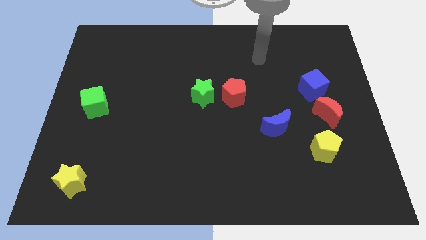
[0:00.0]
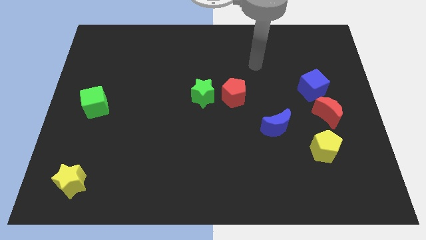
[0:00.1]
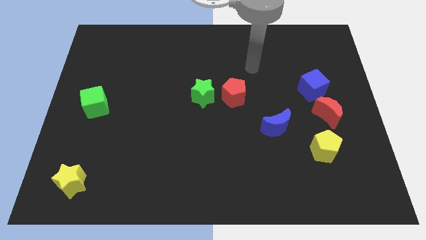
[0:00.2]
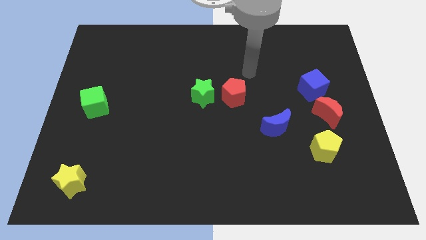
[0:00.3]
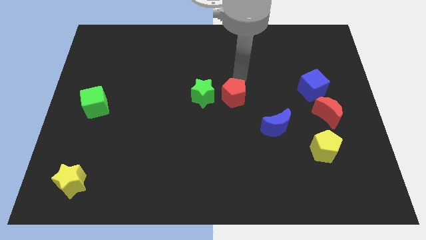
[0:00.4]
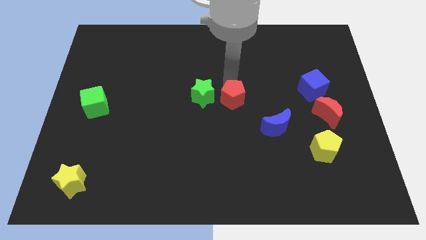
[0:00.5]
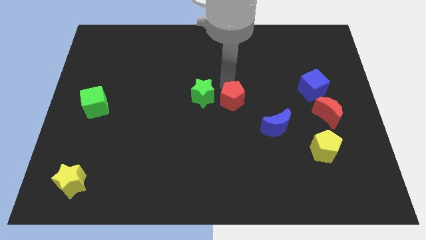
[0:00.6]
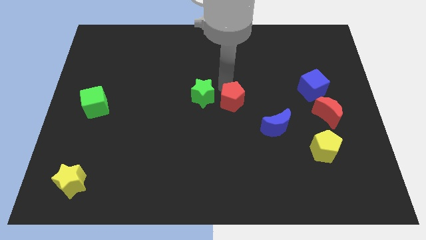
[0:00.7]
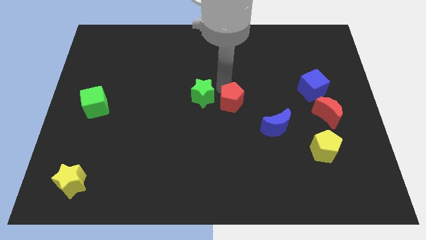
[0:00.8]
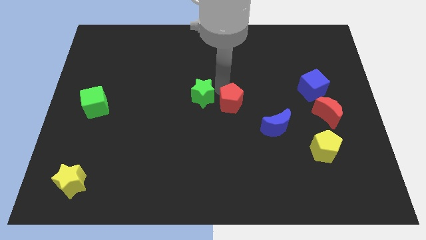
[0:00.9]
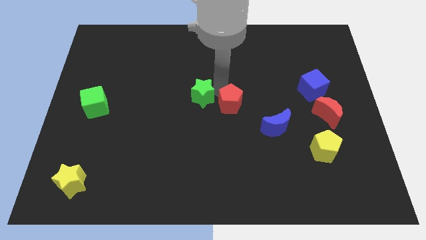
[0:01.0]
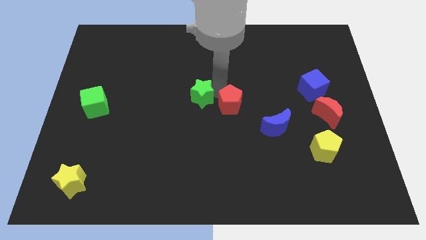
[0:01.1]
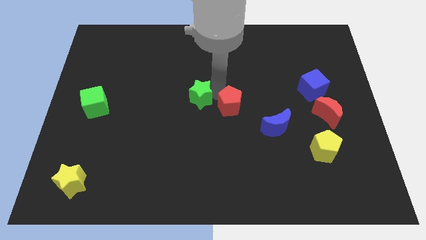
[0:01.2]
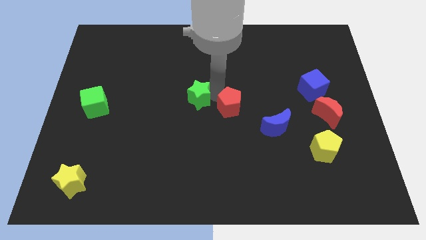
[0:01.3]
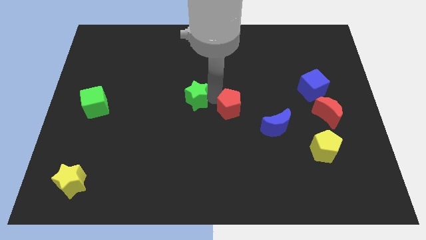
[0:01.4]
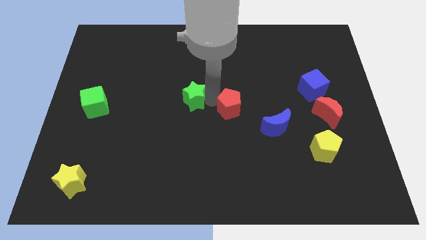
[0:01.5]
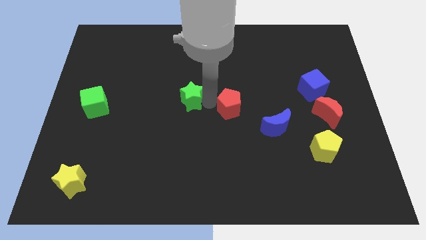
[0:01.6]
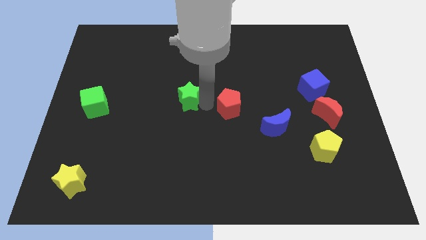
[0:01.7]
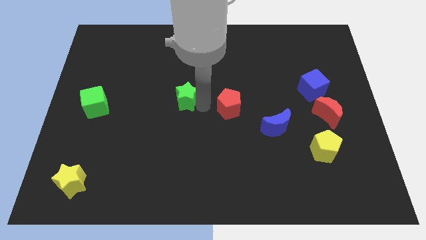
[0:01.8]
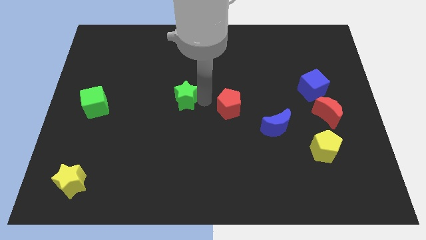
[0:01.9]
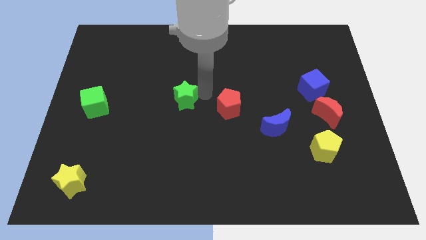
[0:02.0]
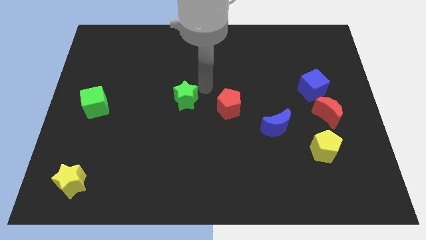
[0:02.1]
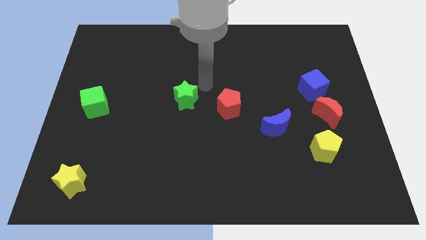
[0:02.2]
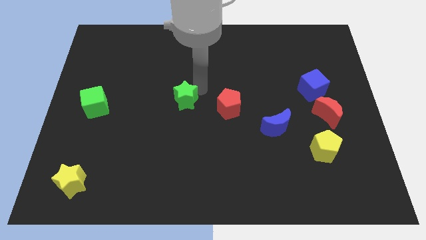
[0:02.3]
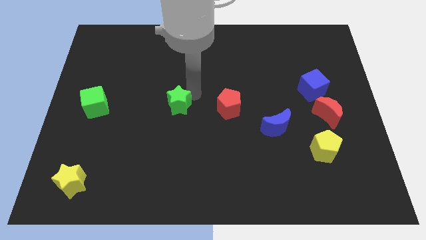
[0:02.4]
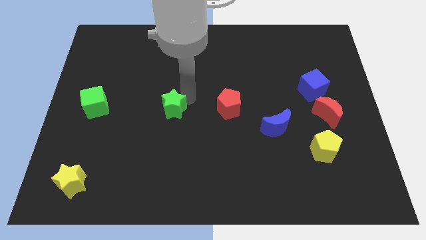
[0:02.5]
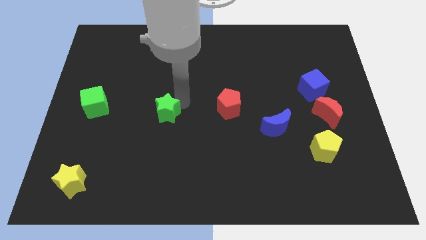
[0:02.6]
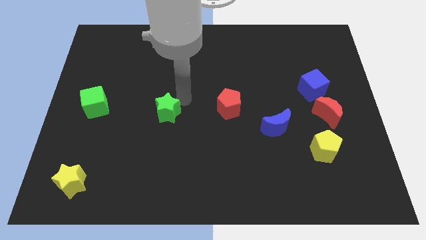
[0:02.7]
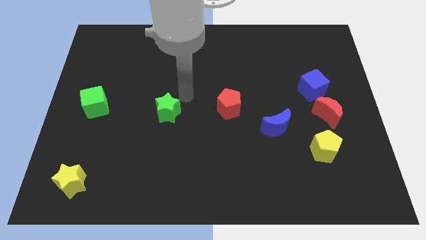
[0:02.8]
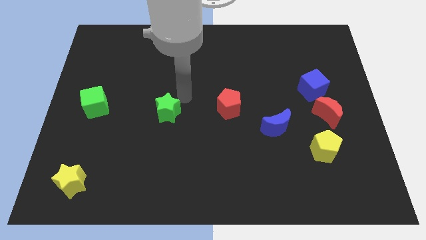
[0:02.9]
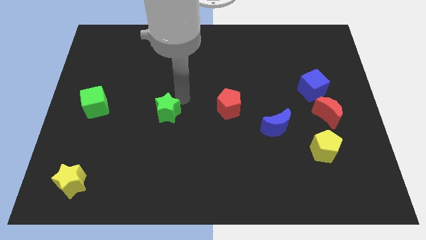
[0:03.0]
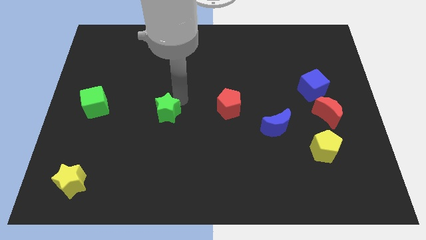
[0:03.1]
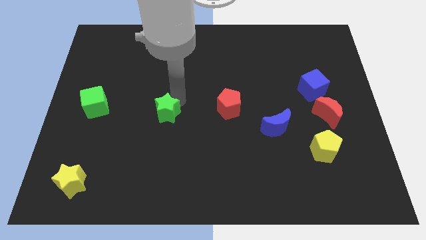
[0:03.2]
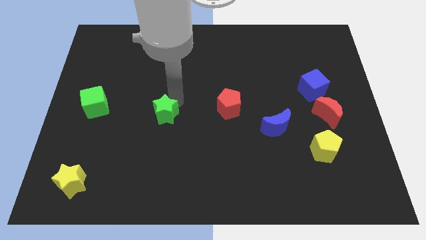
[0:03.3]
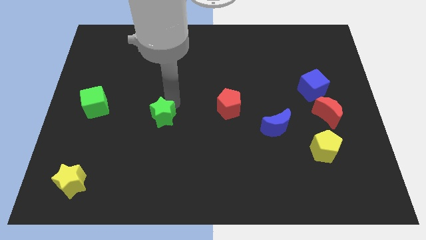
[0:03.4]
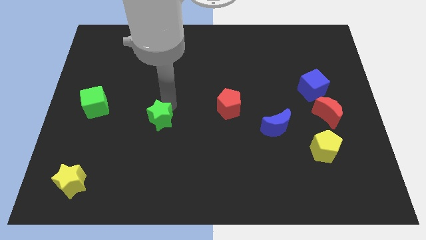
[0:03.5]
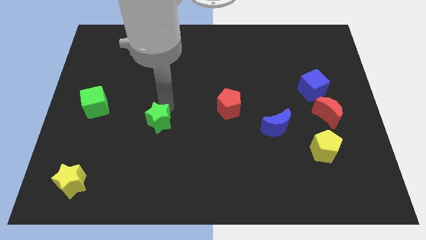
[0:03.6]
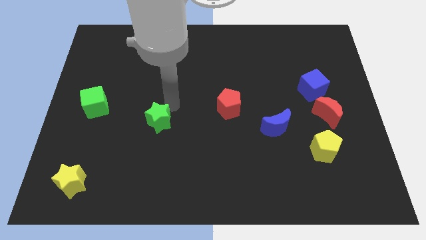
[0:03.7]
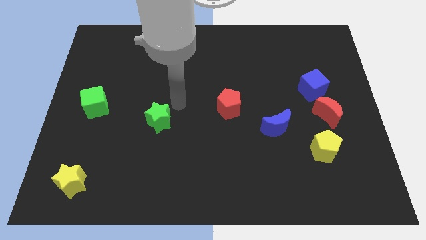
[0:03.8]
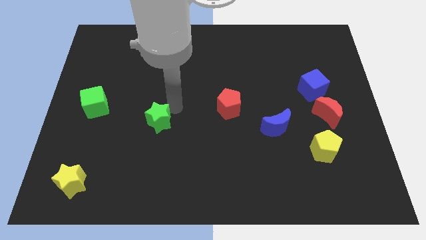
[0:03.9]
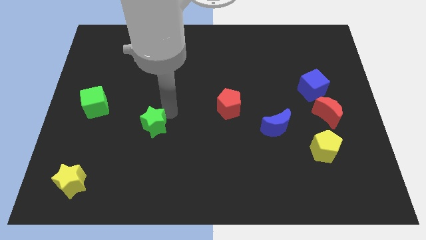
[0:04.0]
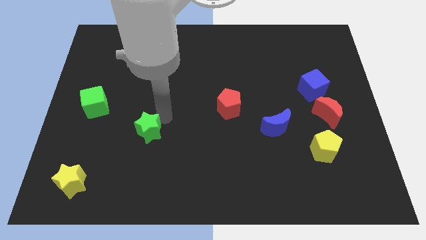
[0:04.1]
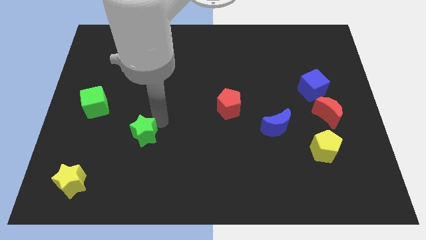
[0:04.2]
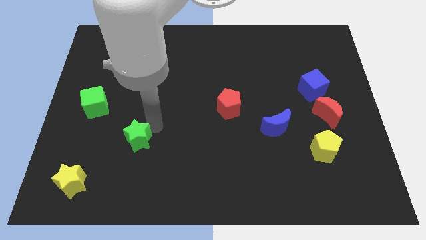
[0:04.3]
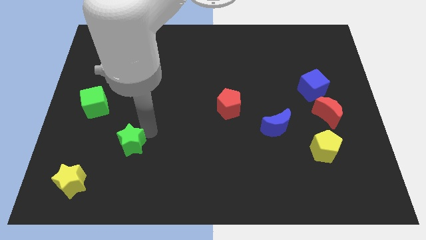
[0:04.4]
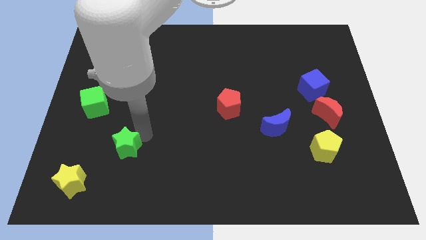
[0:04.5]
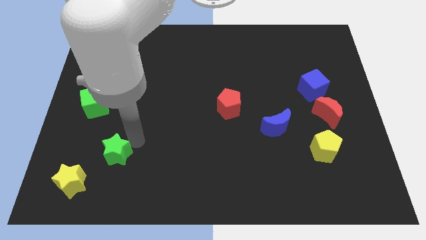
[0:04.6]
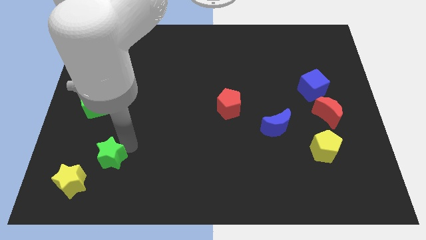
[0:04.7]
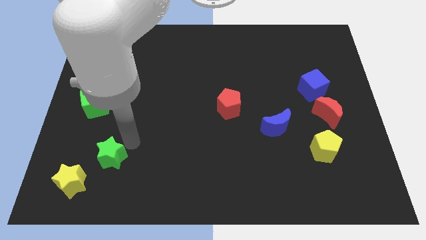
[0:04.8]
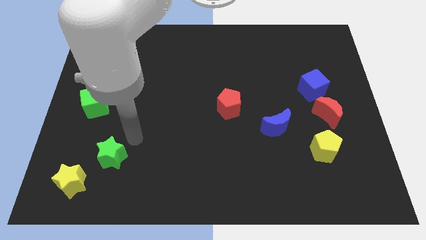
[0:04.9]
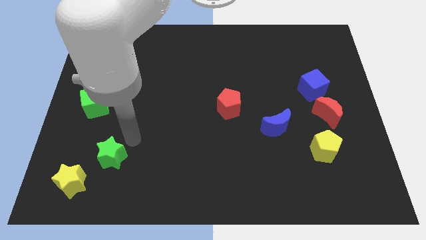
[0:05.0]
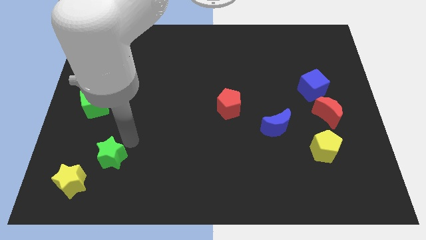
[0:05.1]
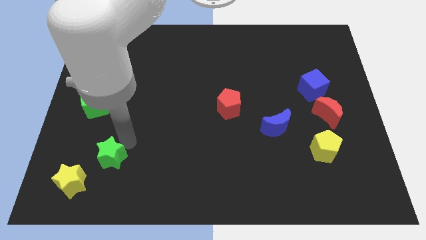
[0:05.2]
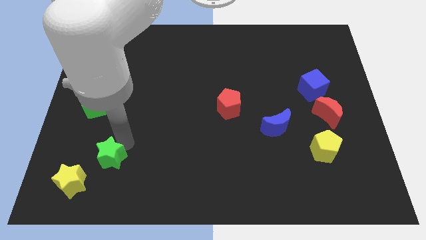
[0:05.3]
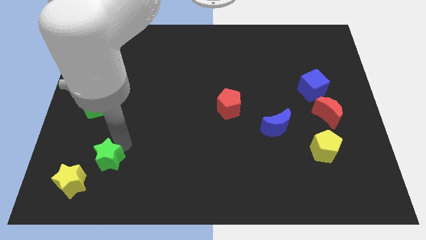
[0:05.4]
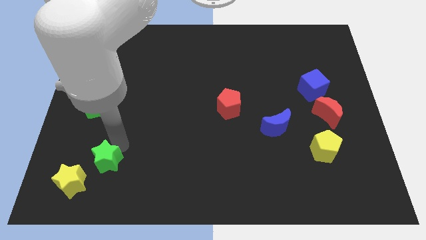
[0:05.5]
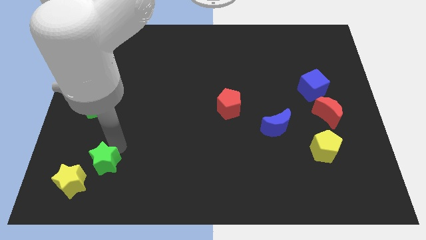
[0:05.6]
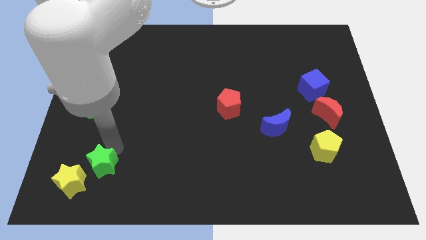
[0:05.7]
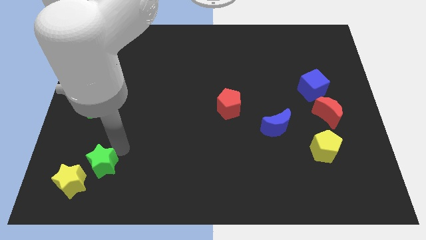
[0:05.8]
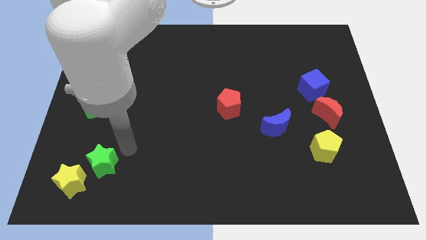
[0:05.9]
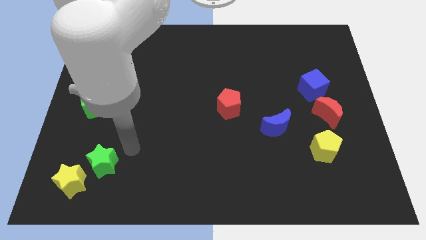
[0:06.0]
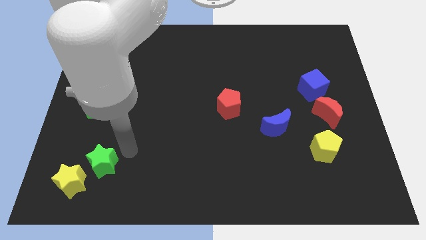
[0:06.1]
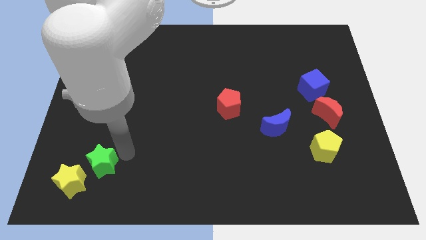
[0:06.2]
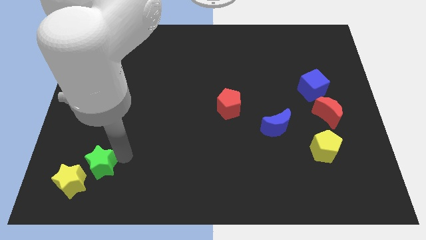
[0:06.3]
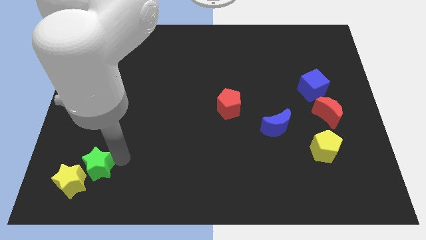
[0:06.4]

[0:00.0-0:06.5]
put the green star to the yellow star
